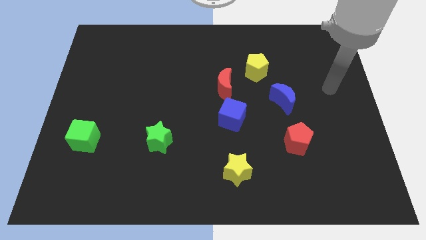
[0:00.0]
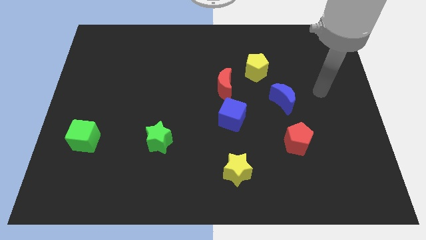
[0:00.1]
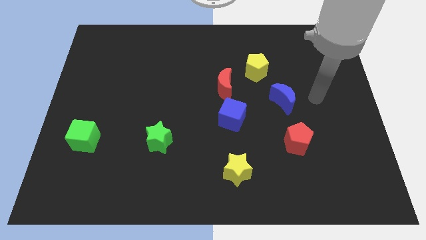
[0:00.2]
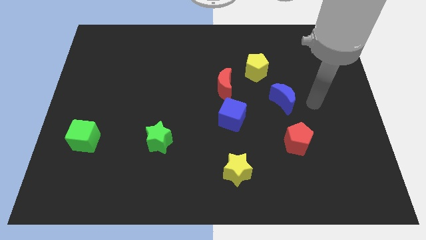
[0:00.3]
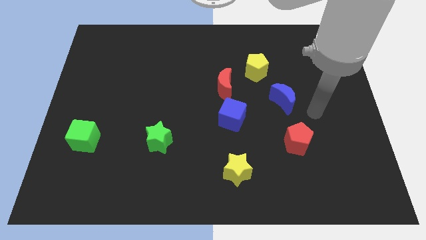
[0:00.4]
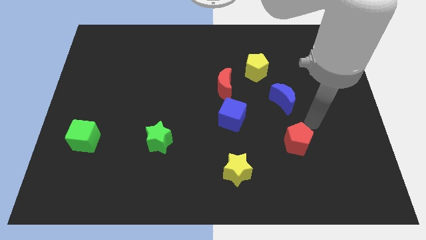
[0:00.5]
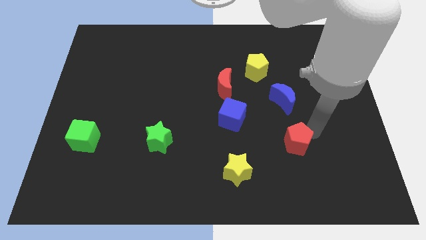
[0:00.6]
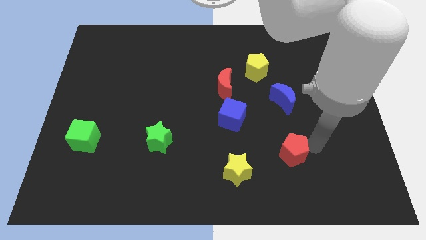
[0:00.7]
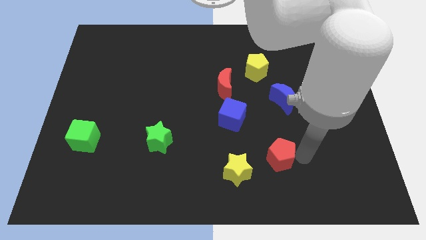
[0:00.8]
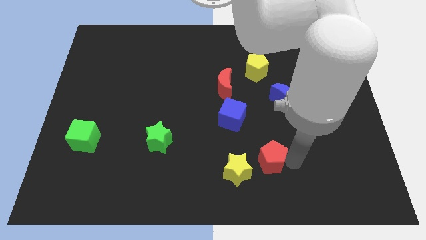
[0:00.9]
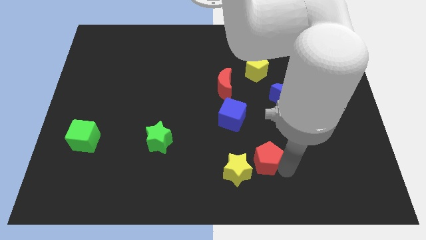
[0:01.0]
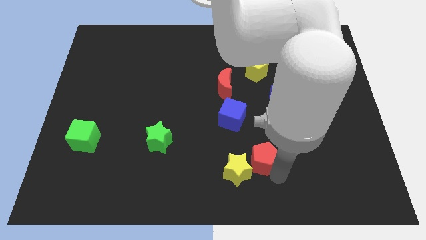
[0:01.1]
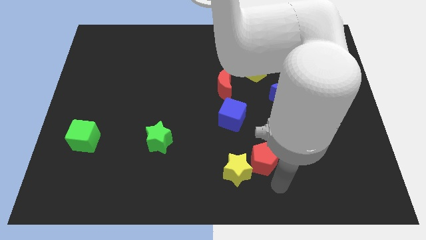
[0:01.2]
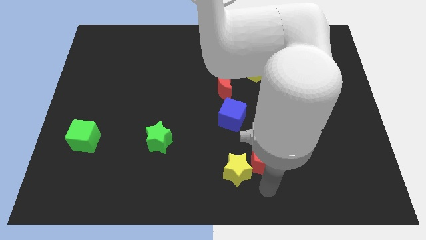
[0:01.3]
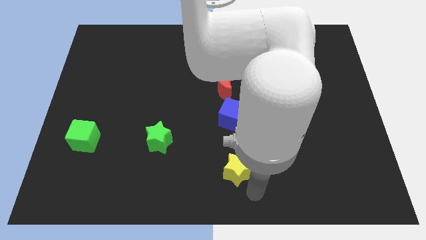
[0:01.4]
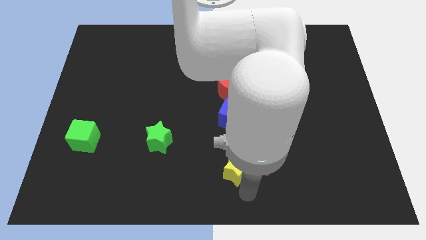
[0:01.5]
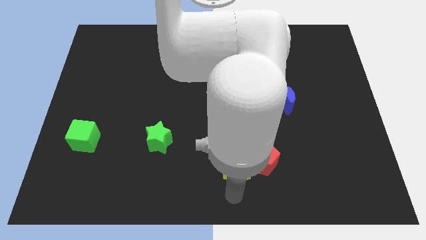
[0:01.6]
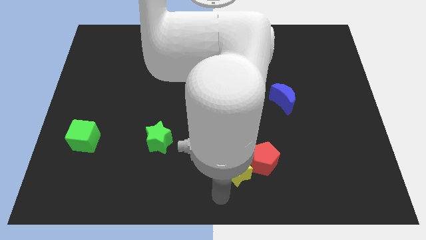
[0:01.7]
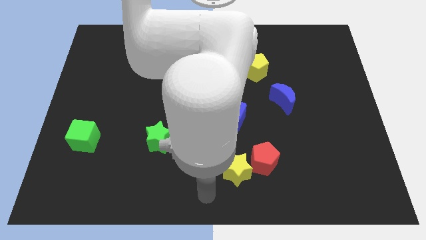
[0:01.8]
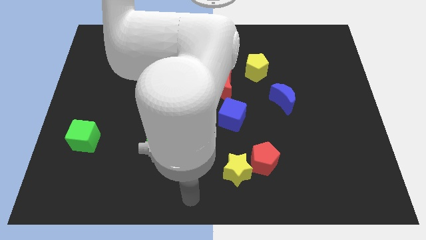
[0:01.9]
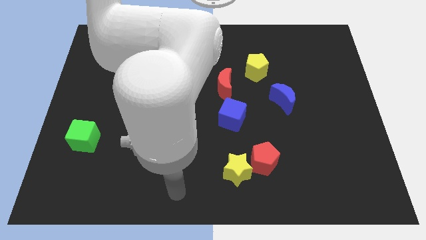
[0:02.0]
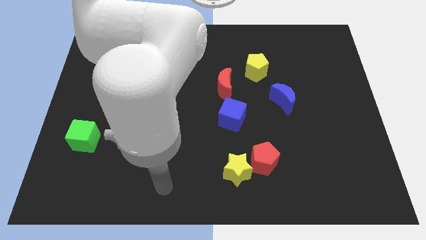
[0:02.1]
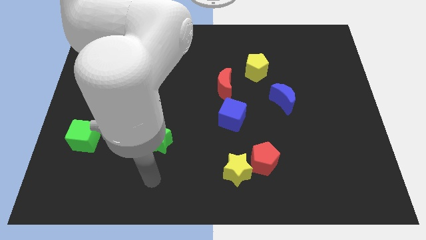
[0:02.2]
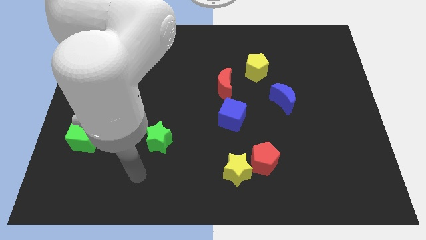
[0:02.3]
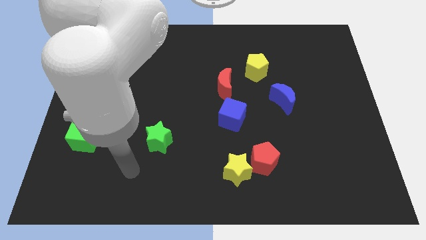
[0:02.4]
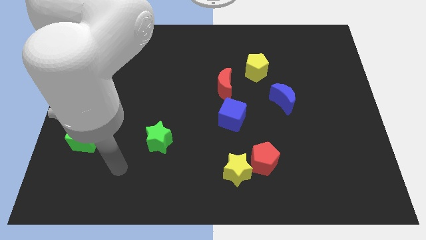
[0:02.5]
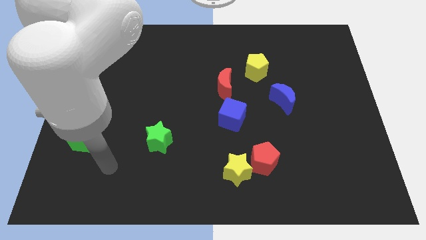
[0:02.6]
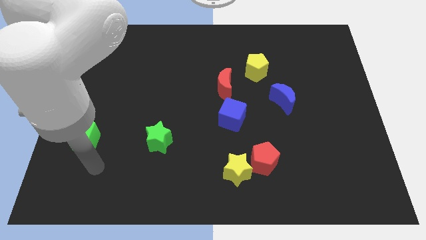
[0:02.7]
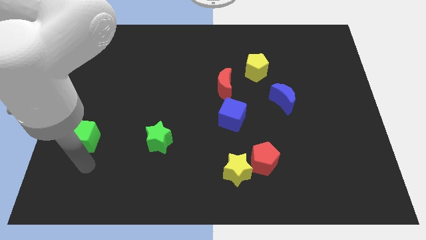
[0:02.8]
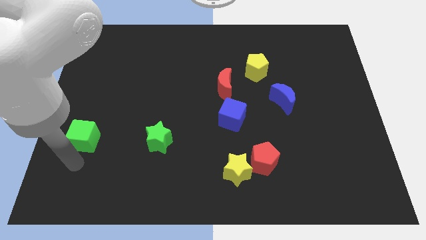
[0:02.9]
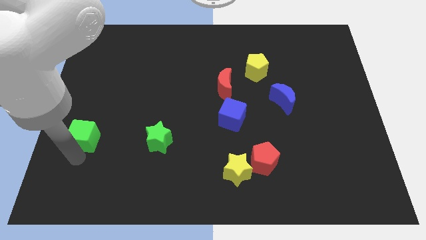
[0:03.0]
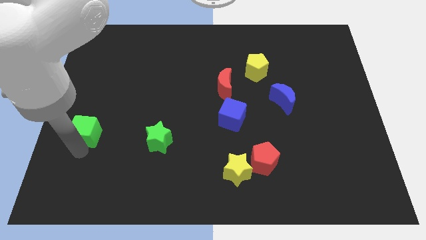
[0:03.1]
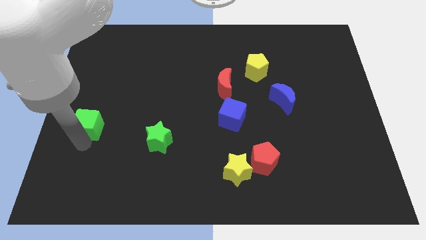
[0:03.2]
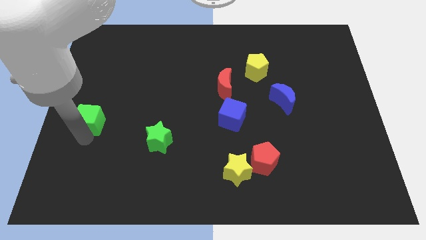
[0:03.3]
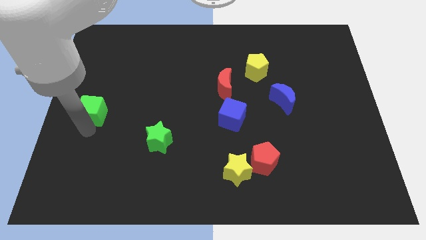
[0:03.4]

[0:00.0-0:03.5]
slide the green cube upwards a little

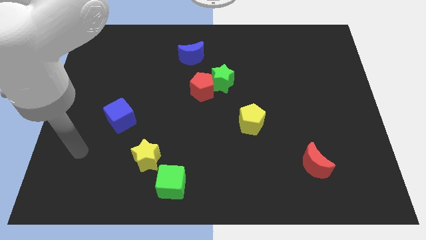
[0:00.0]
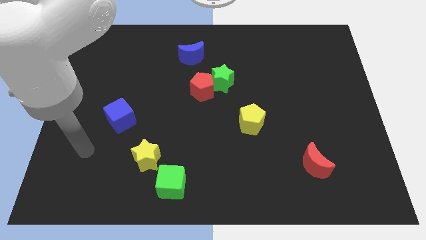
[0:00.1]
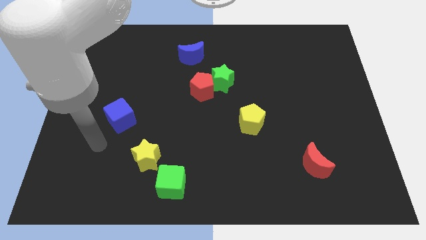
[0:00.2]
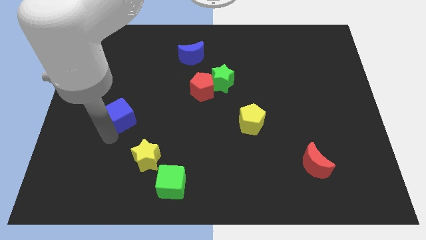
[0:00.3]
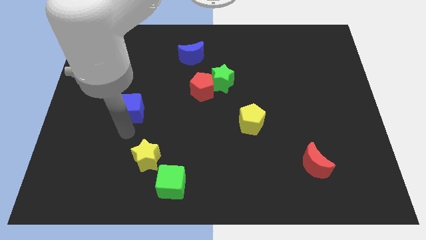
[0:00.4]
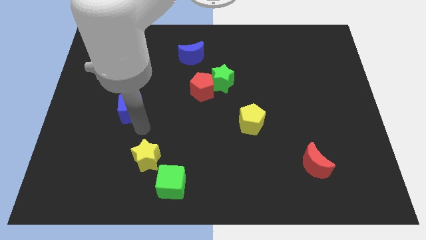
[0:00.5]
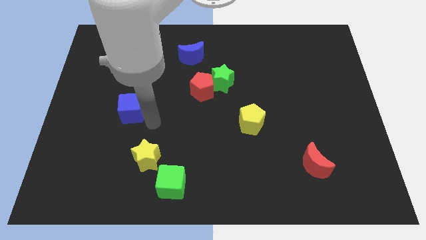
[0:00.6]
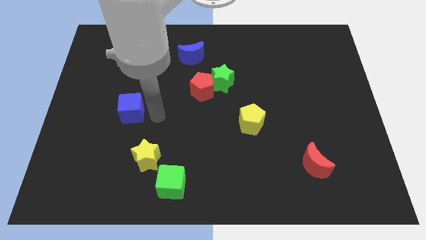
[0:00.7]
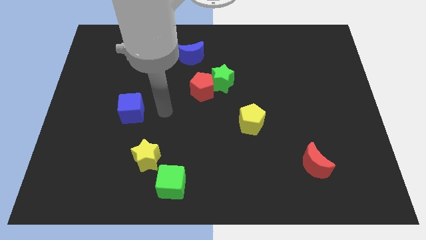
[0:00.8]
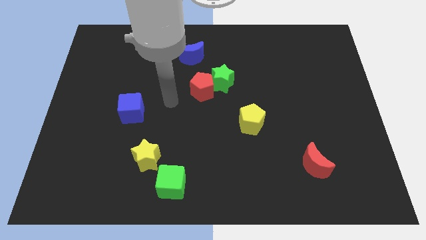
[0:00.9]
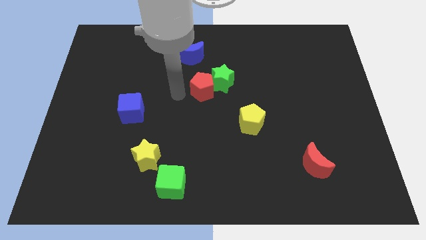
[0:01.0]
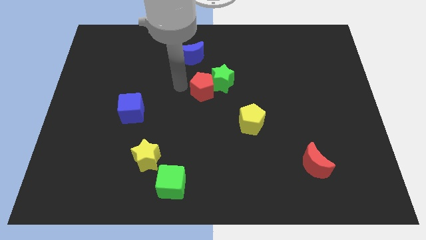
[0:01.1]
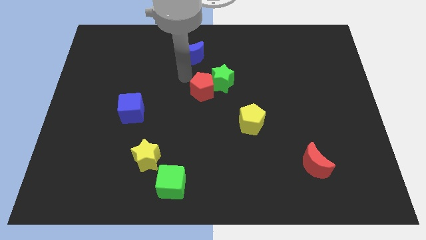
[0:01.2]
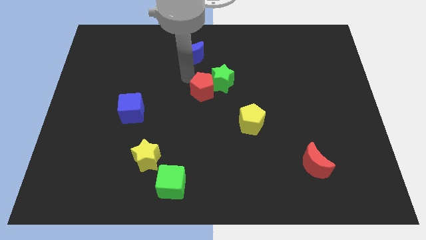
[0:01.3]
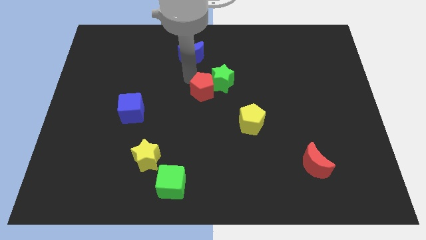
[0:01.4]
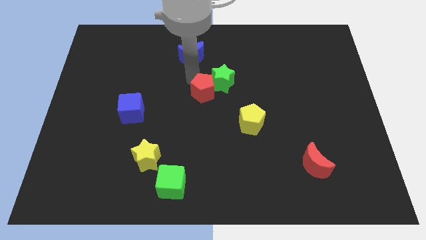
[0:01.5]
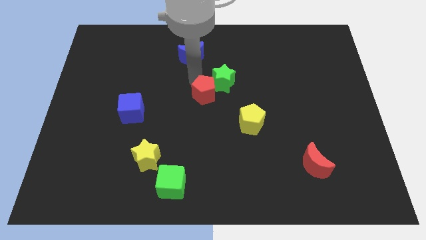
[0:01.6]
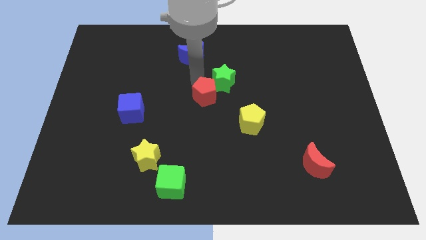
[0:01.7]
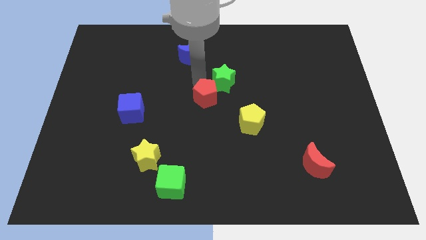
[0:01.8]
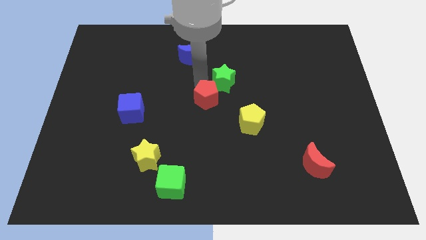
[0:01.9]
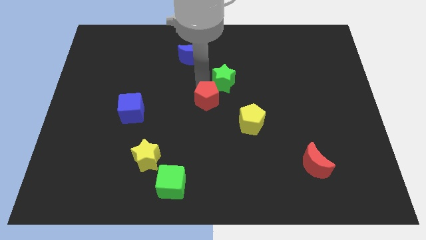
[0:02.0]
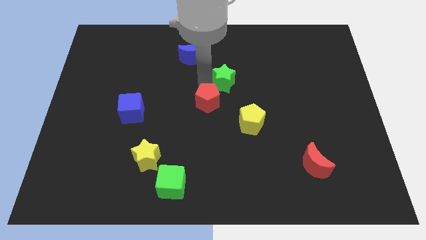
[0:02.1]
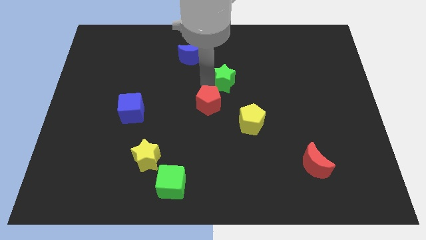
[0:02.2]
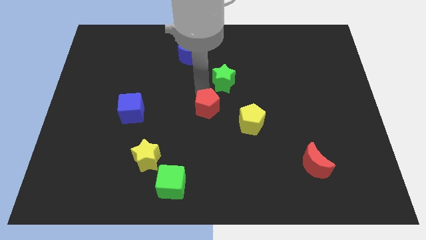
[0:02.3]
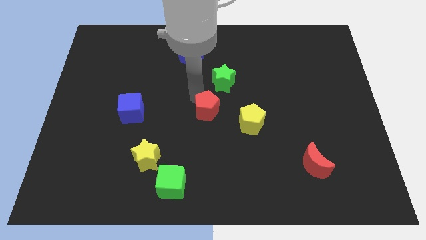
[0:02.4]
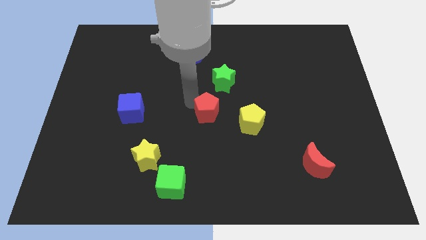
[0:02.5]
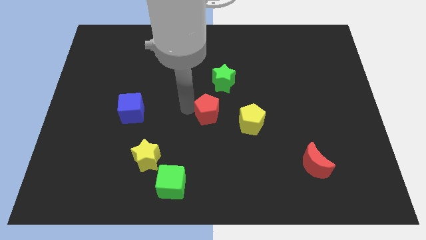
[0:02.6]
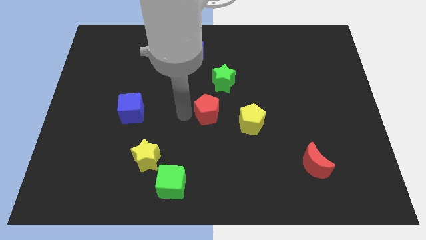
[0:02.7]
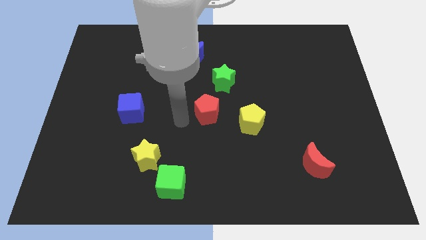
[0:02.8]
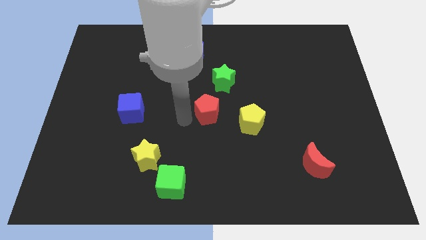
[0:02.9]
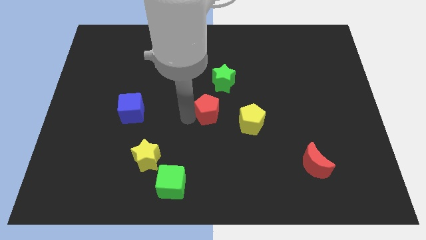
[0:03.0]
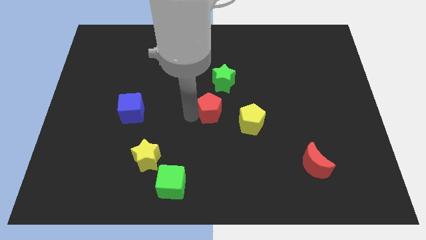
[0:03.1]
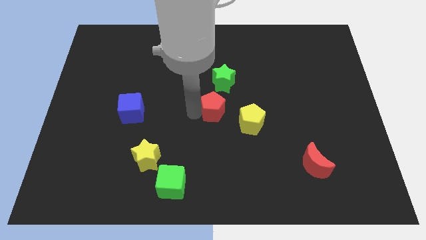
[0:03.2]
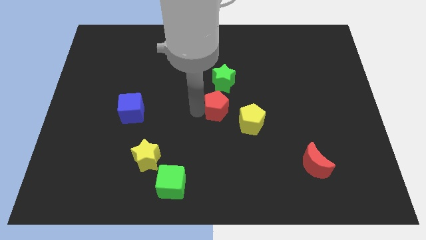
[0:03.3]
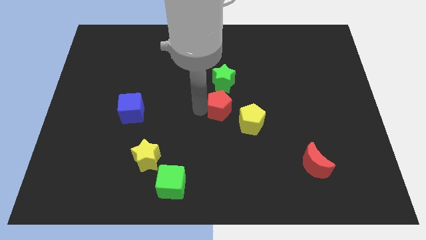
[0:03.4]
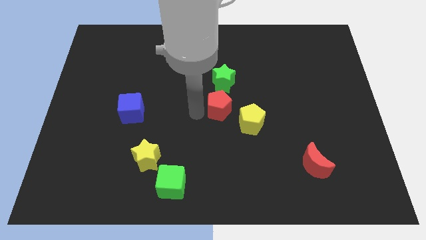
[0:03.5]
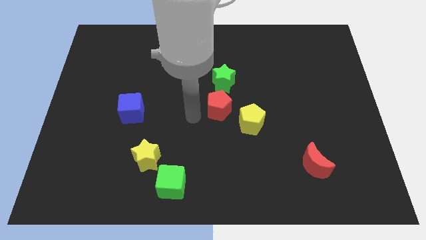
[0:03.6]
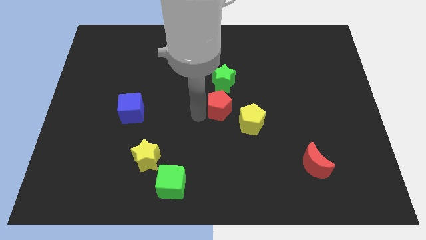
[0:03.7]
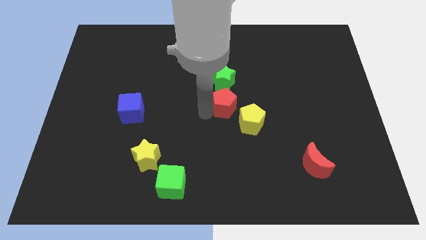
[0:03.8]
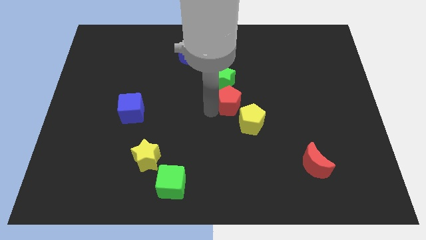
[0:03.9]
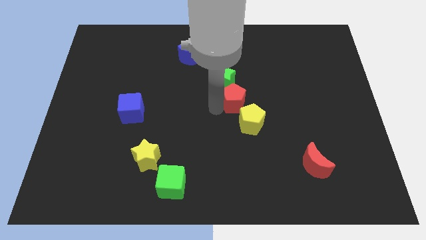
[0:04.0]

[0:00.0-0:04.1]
slide the red pentagon a little right

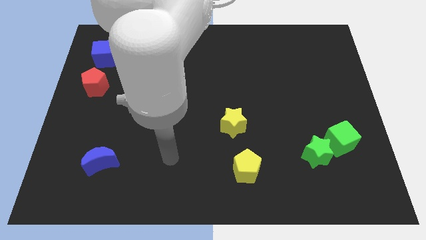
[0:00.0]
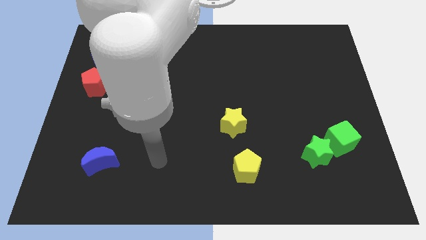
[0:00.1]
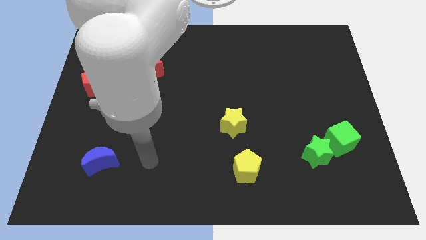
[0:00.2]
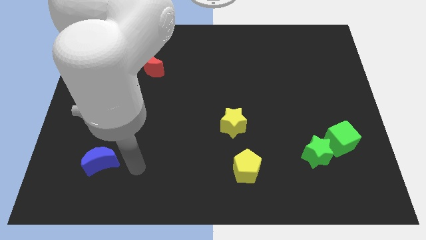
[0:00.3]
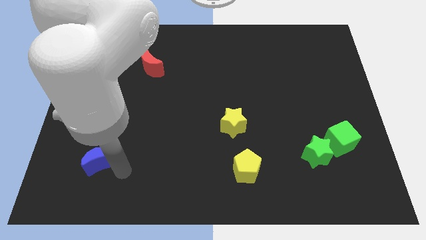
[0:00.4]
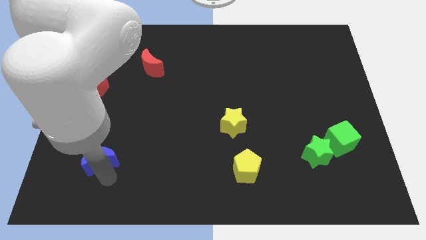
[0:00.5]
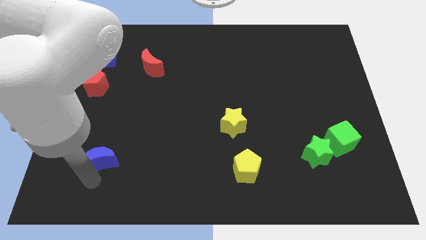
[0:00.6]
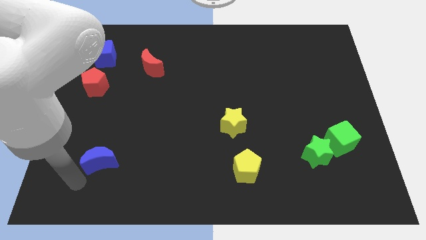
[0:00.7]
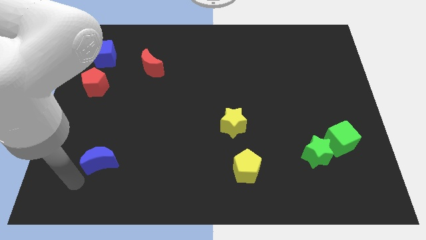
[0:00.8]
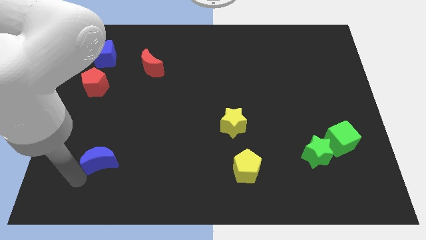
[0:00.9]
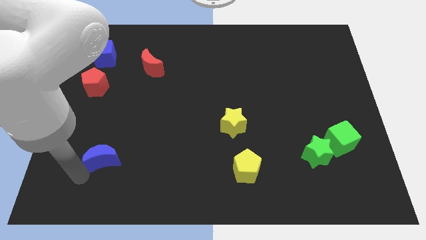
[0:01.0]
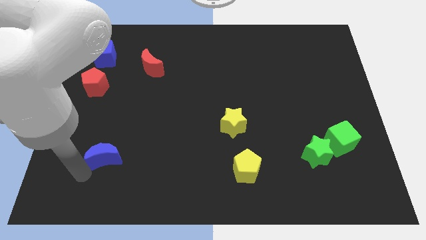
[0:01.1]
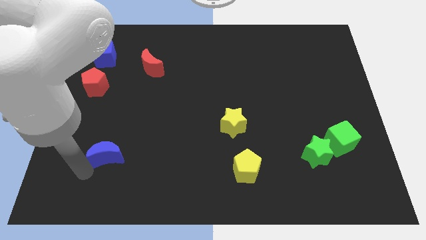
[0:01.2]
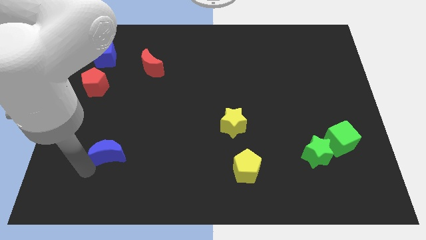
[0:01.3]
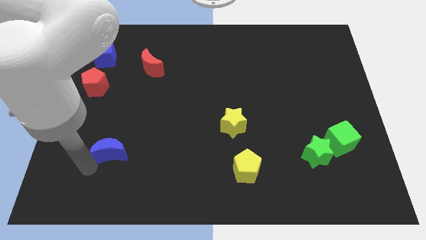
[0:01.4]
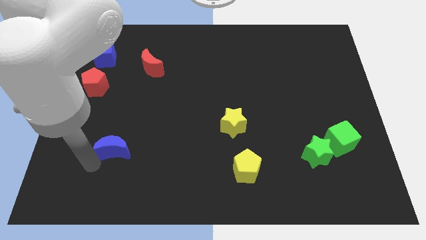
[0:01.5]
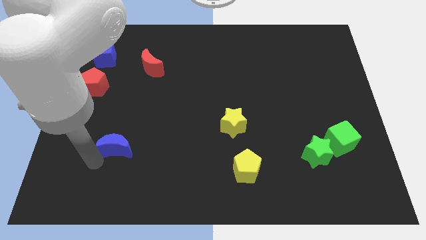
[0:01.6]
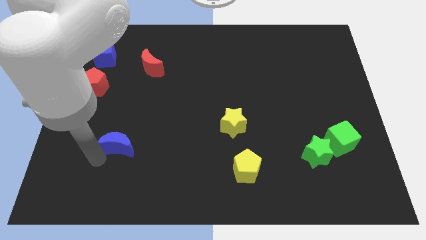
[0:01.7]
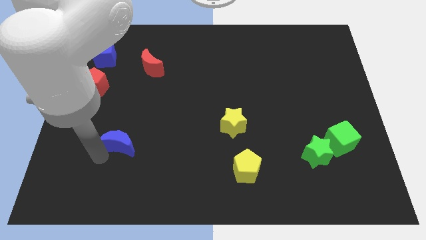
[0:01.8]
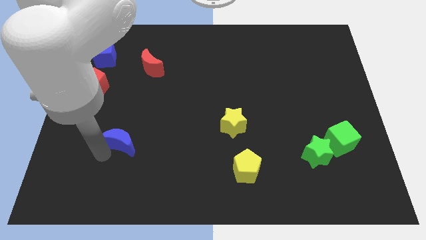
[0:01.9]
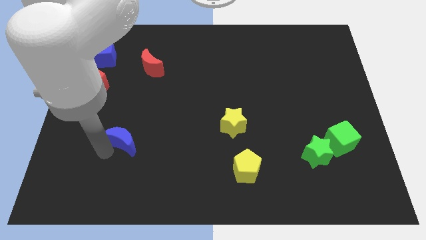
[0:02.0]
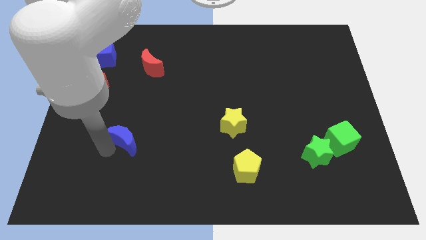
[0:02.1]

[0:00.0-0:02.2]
push the blue moon upwards and right somewhat
